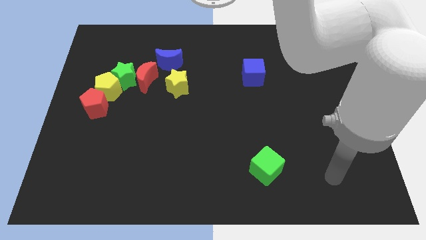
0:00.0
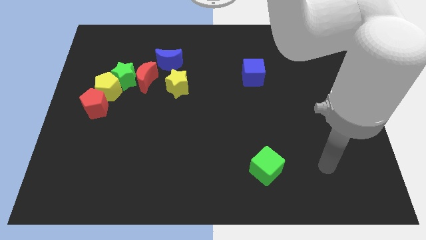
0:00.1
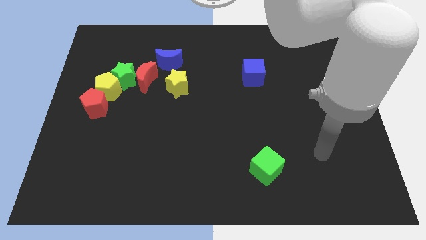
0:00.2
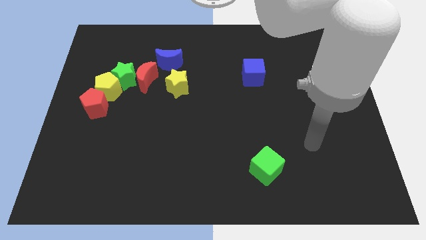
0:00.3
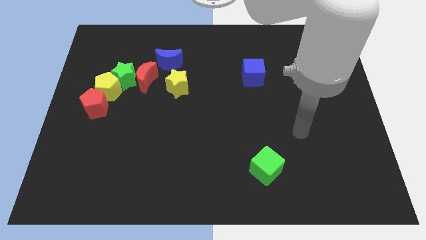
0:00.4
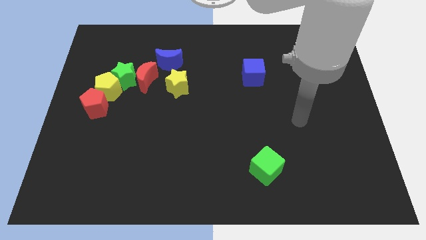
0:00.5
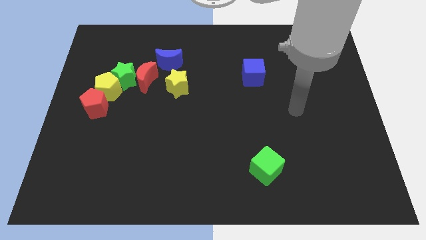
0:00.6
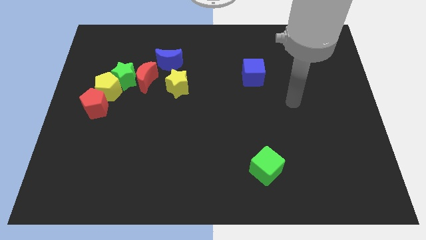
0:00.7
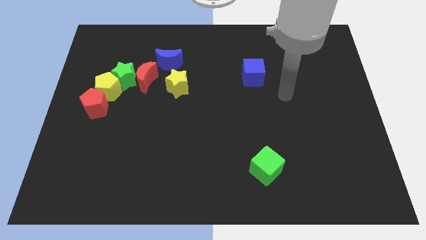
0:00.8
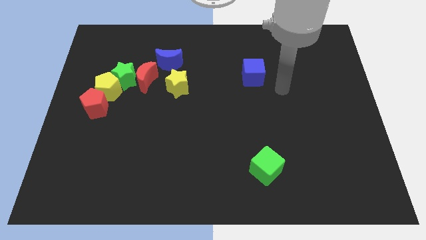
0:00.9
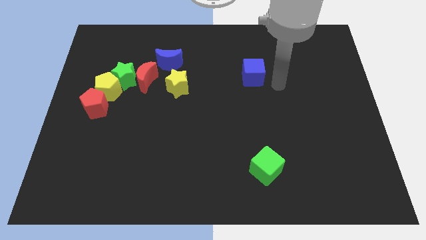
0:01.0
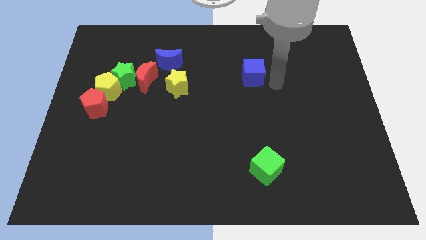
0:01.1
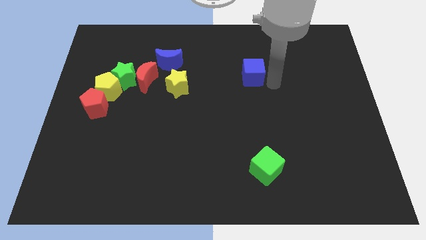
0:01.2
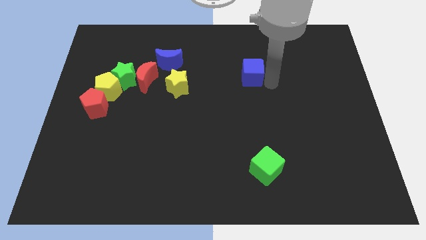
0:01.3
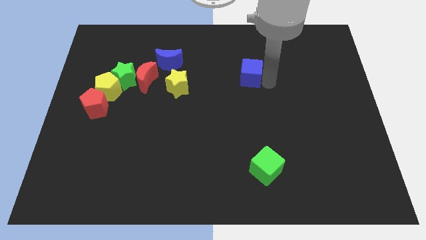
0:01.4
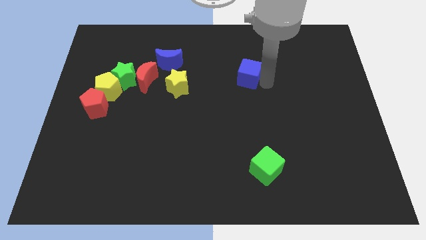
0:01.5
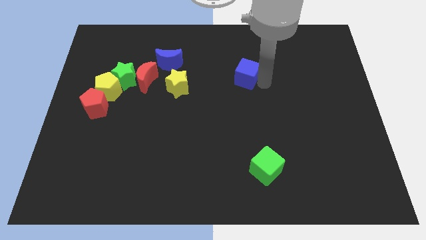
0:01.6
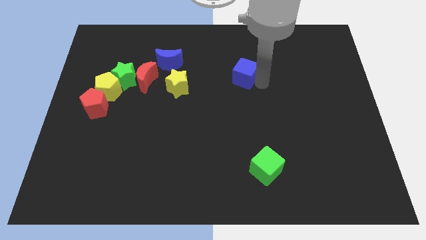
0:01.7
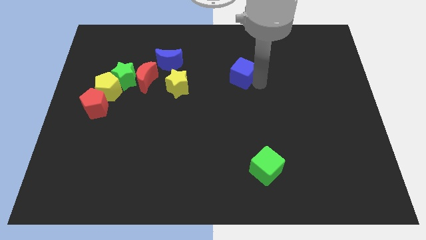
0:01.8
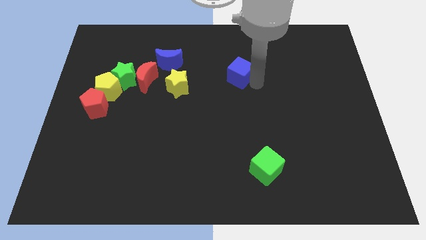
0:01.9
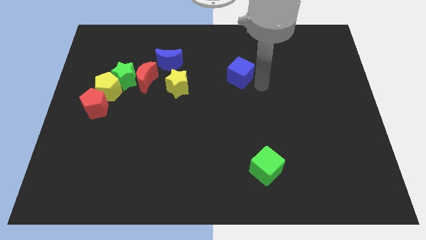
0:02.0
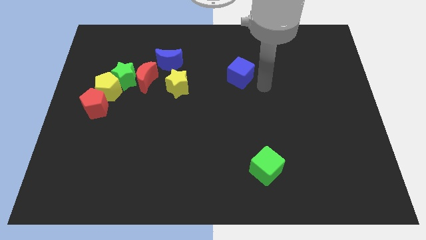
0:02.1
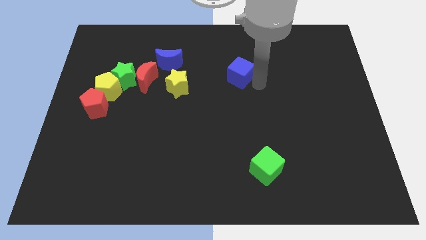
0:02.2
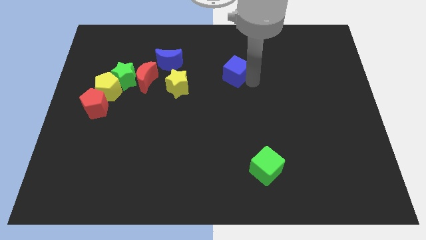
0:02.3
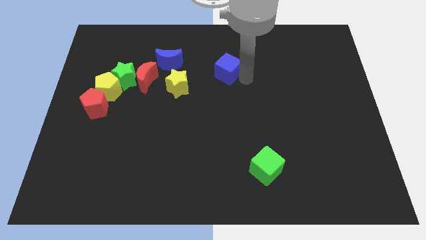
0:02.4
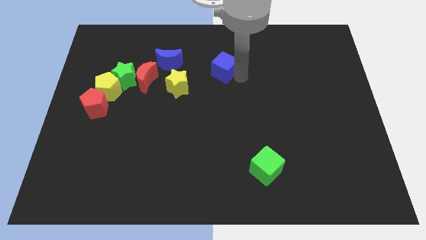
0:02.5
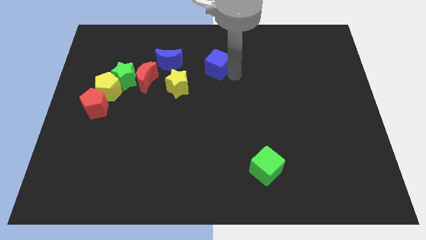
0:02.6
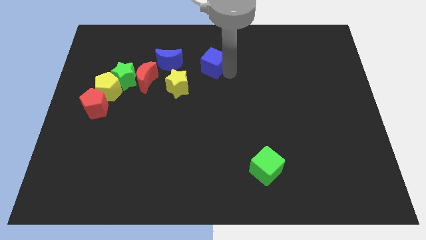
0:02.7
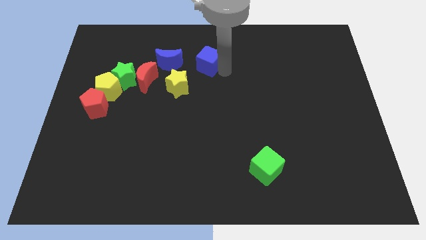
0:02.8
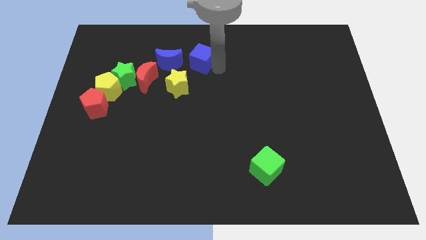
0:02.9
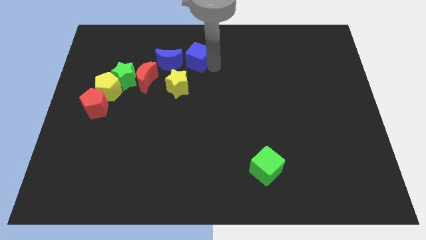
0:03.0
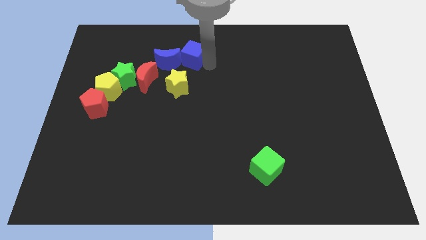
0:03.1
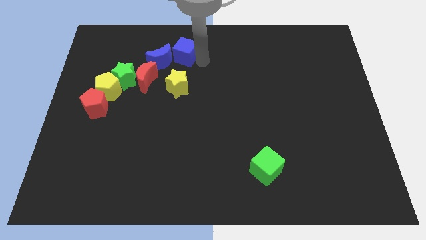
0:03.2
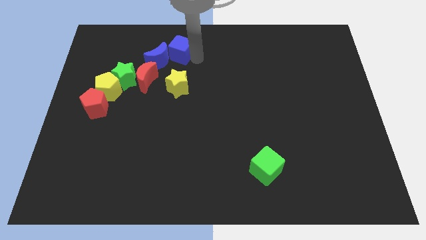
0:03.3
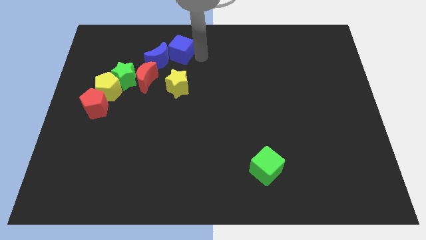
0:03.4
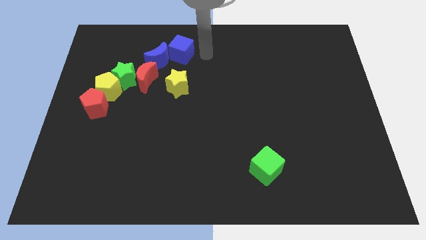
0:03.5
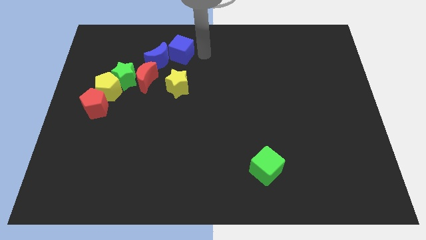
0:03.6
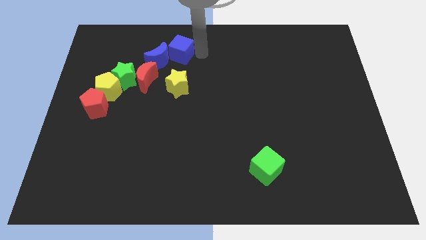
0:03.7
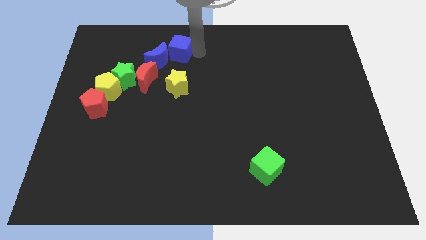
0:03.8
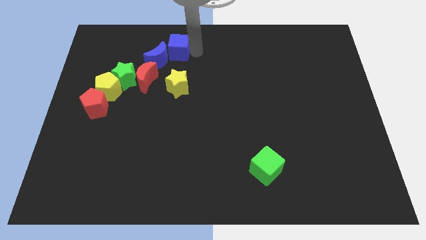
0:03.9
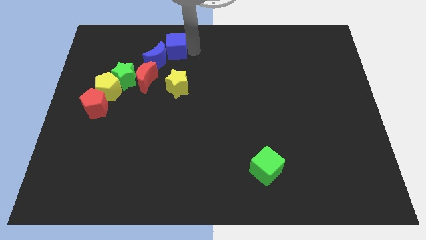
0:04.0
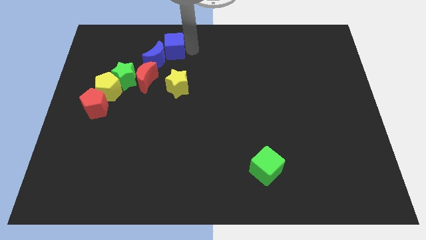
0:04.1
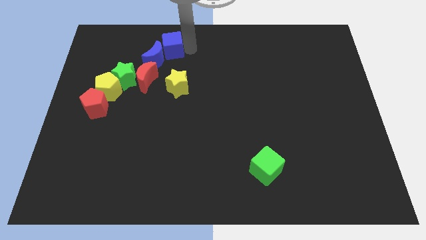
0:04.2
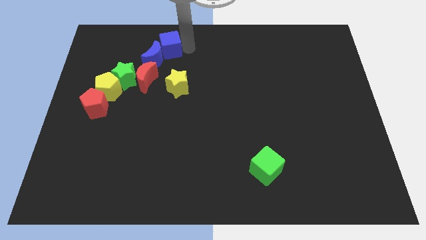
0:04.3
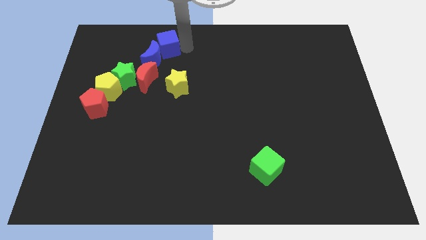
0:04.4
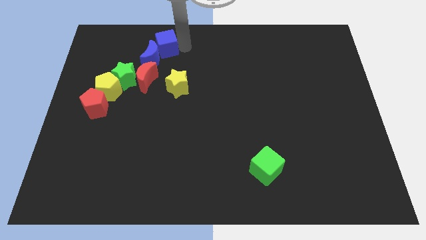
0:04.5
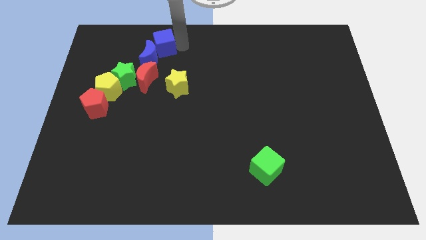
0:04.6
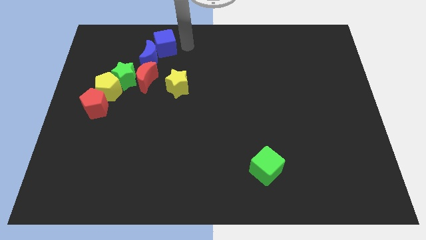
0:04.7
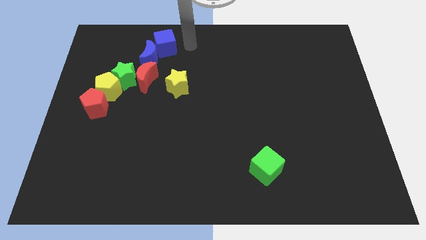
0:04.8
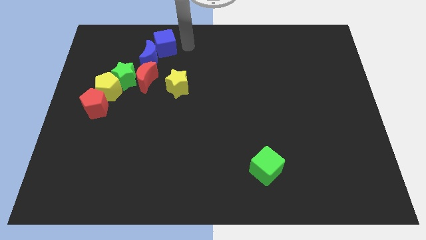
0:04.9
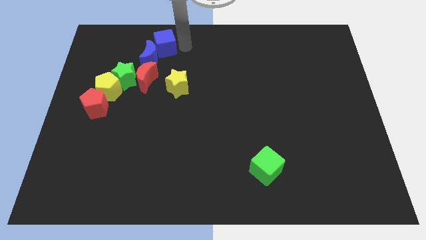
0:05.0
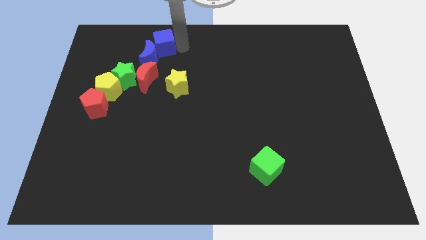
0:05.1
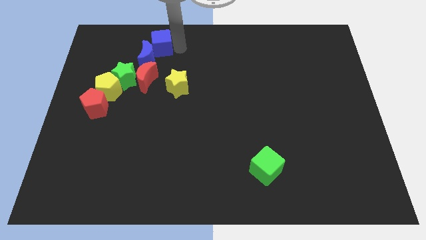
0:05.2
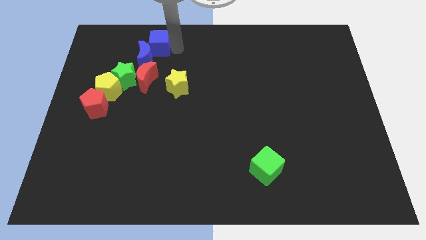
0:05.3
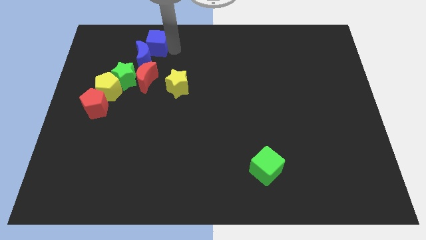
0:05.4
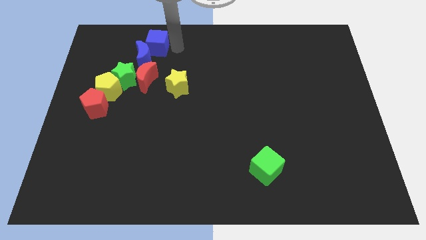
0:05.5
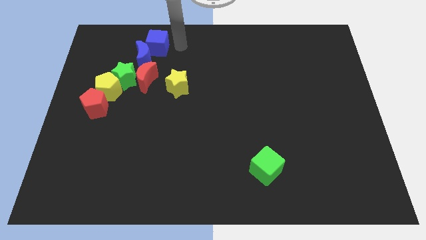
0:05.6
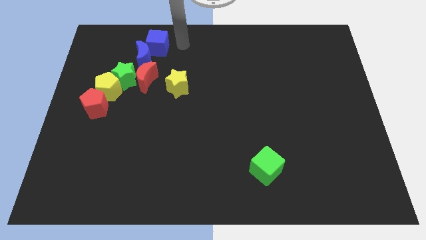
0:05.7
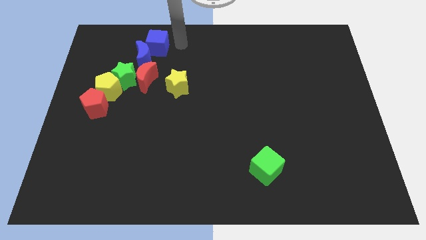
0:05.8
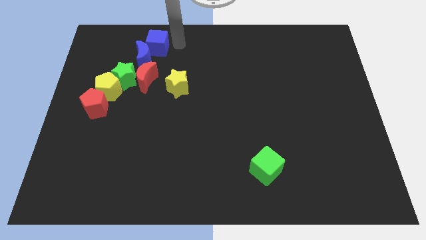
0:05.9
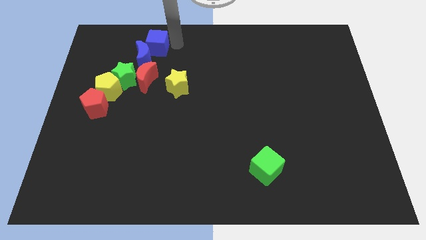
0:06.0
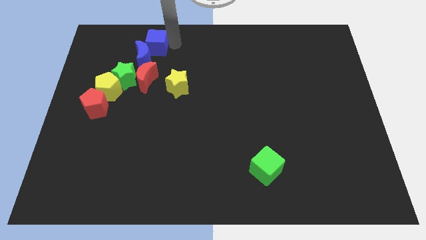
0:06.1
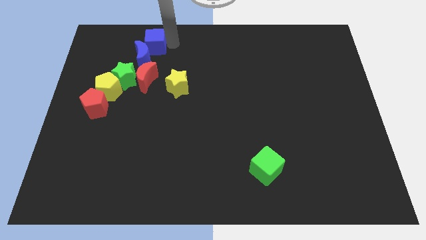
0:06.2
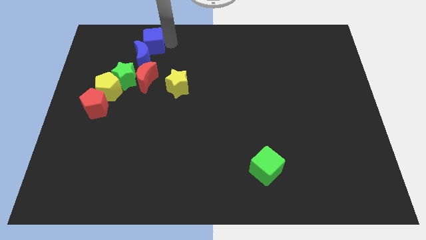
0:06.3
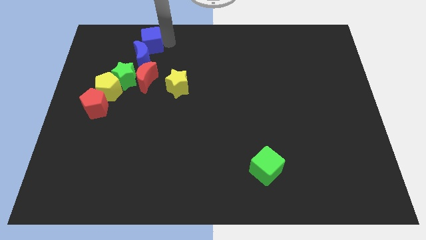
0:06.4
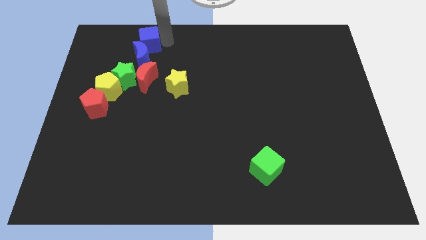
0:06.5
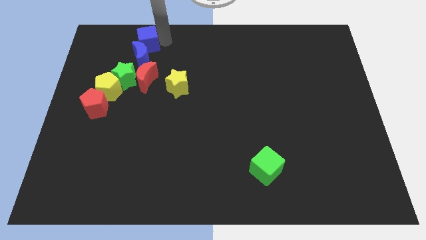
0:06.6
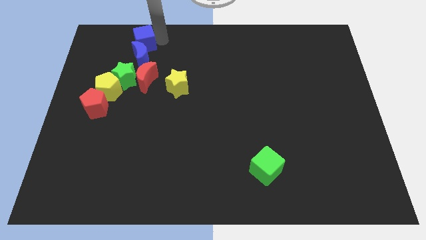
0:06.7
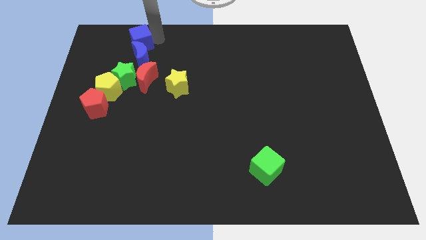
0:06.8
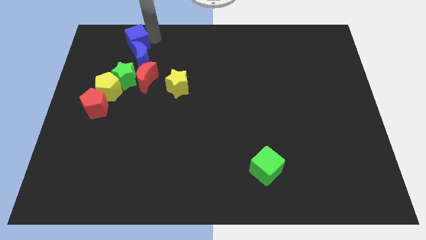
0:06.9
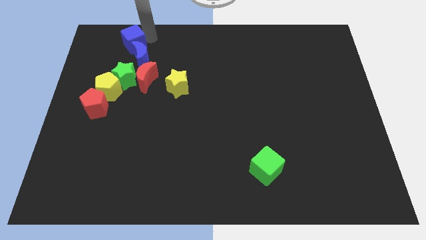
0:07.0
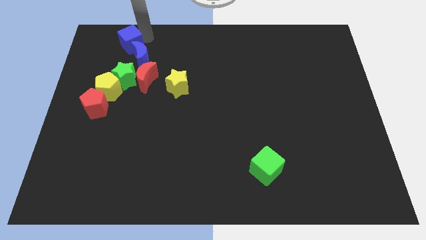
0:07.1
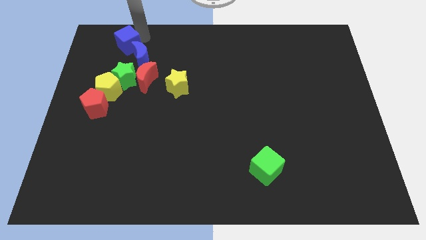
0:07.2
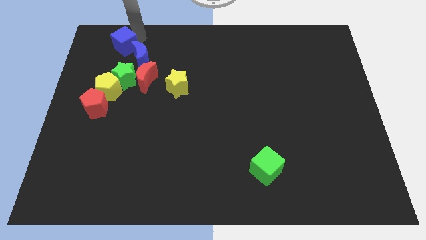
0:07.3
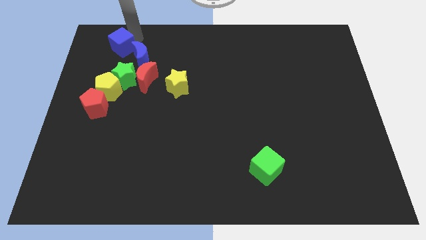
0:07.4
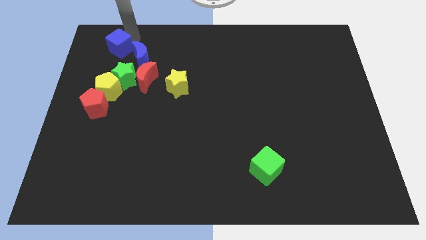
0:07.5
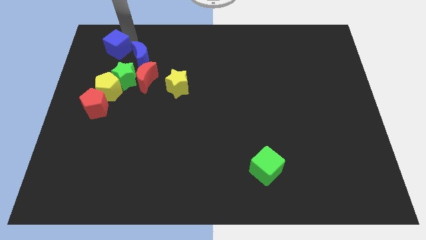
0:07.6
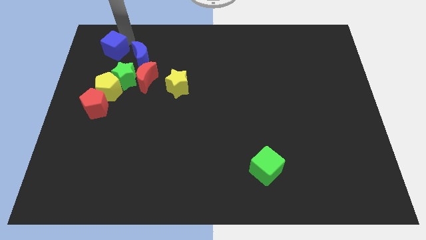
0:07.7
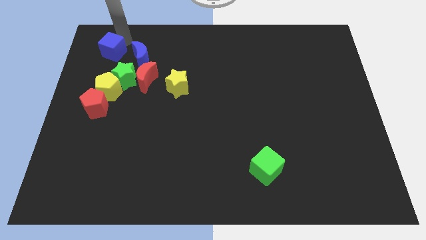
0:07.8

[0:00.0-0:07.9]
put the blue cube diagonally up and to the left of the green star

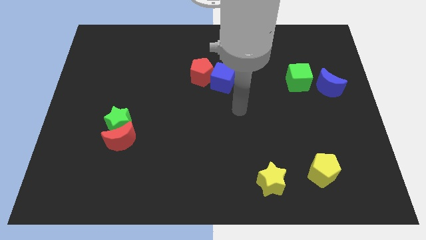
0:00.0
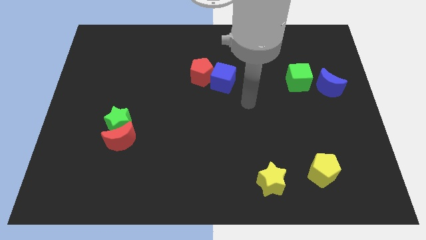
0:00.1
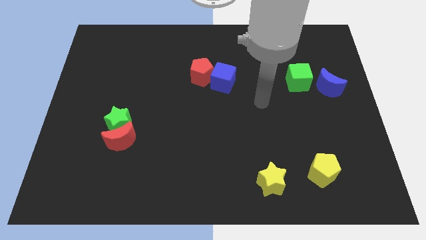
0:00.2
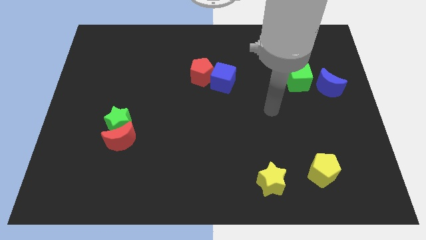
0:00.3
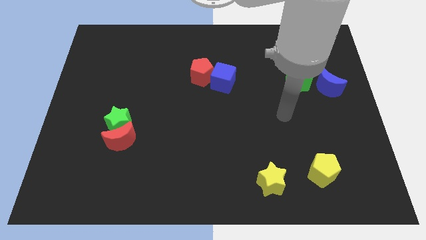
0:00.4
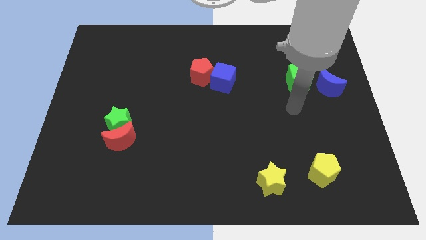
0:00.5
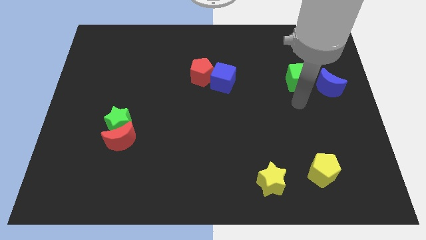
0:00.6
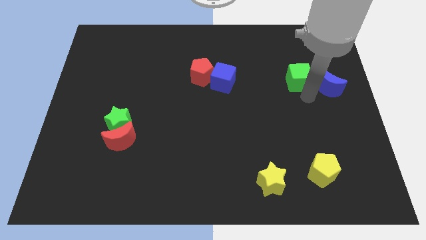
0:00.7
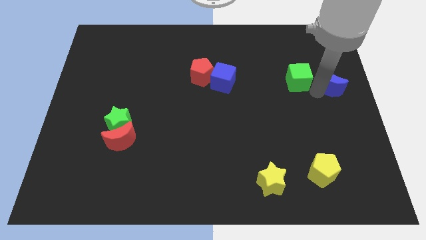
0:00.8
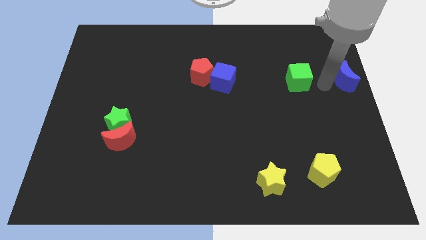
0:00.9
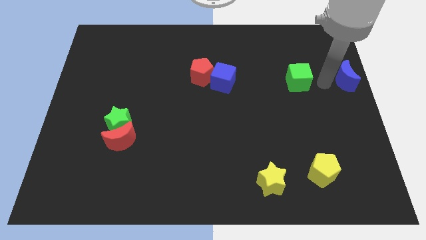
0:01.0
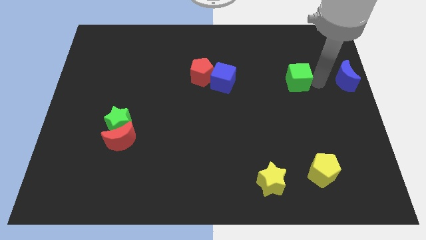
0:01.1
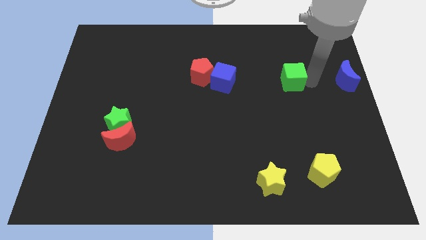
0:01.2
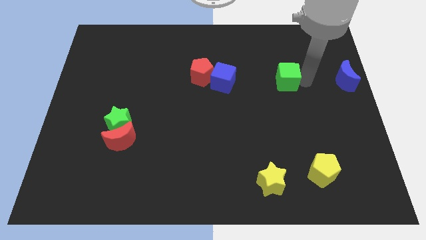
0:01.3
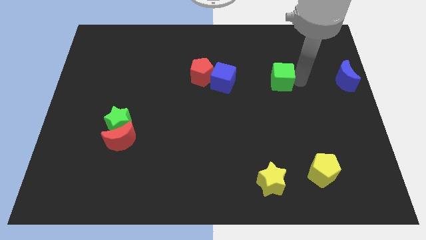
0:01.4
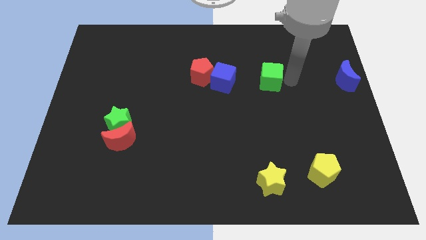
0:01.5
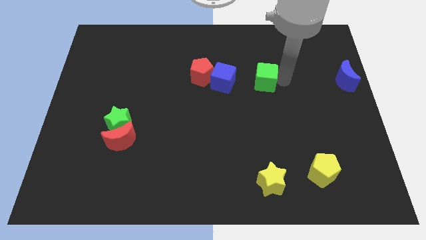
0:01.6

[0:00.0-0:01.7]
push the green cube to the right of the red pentagon
